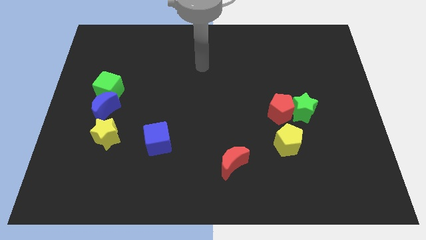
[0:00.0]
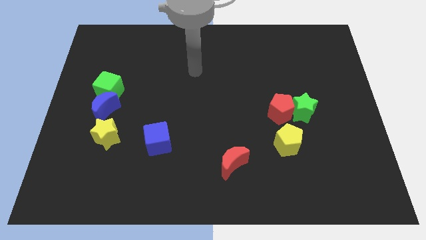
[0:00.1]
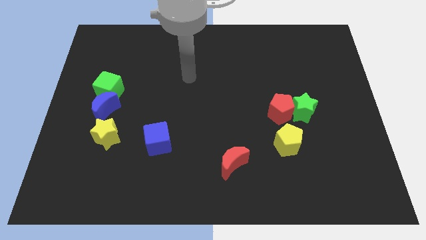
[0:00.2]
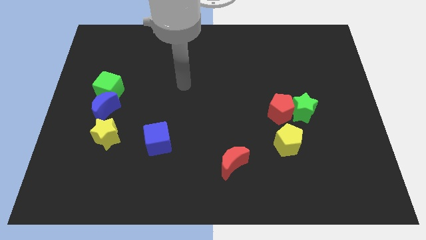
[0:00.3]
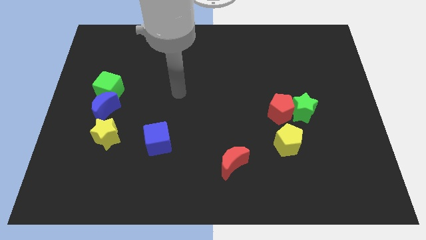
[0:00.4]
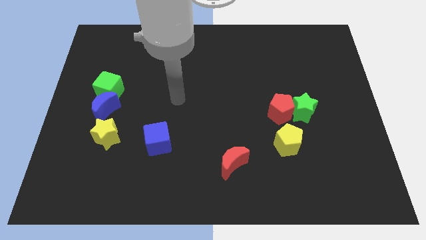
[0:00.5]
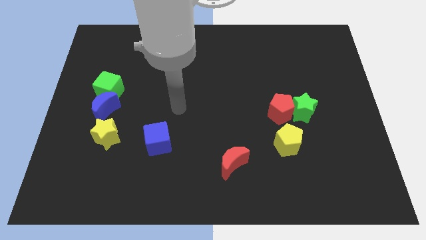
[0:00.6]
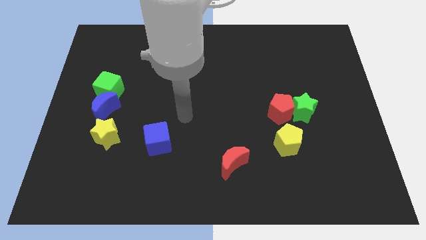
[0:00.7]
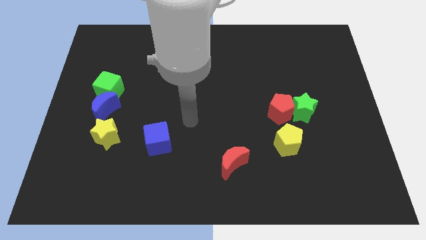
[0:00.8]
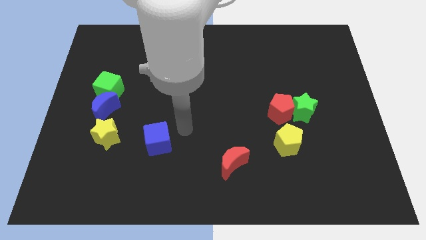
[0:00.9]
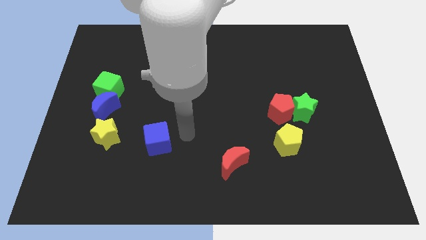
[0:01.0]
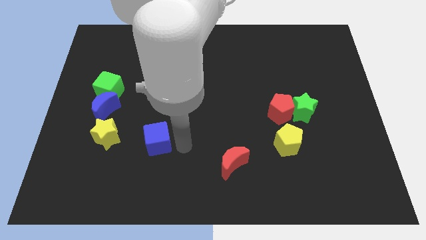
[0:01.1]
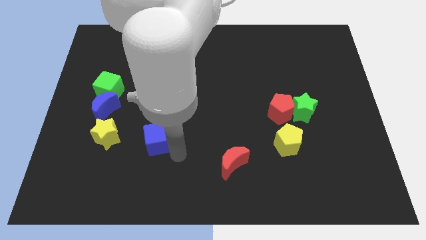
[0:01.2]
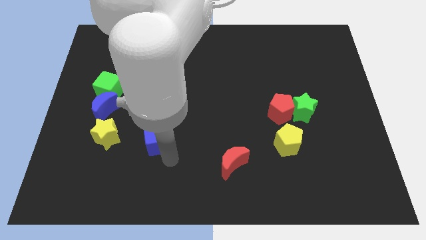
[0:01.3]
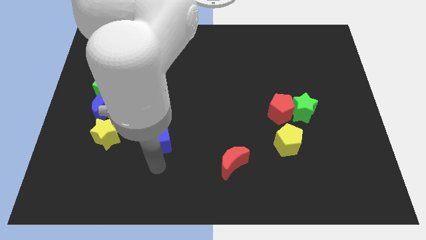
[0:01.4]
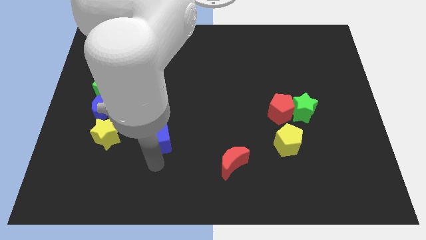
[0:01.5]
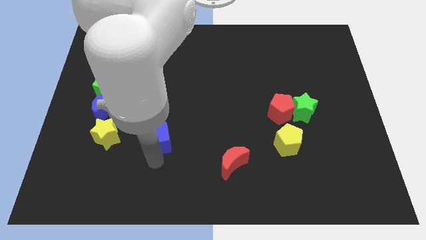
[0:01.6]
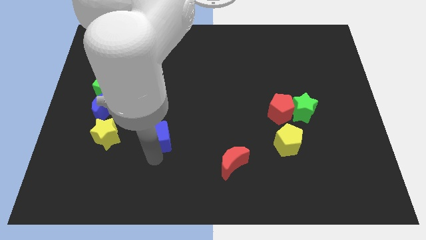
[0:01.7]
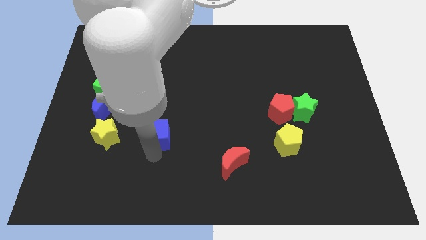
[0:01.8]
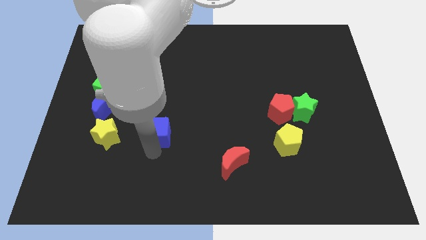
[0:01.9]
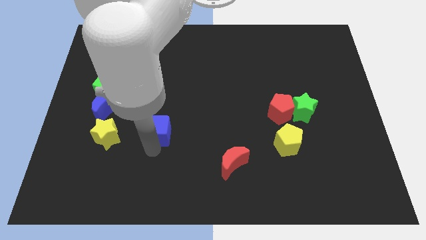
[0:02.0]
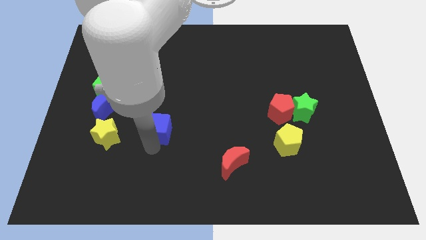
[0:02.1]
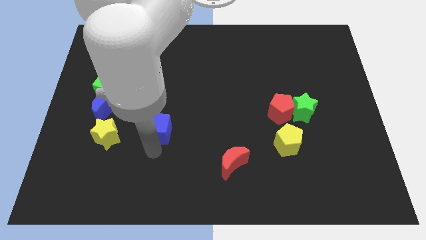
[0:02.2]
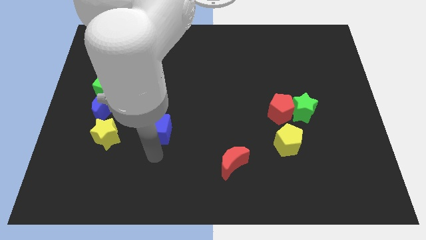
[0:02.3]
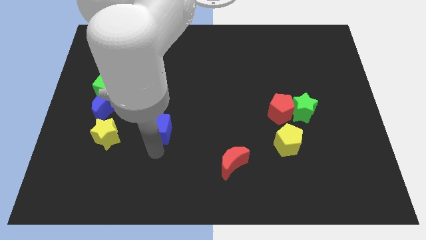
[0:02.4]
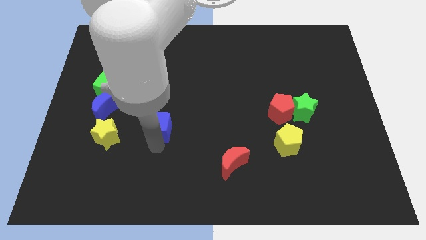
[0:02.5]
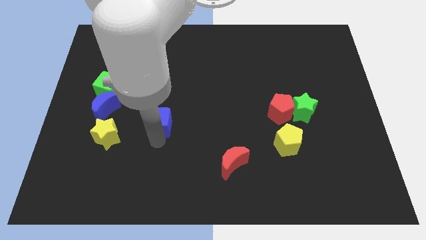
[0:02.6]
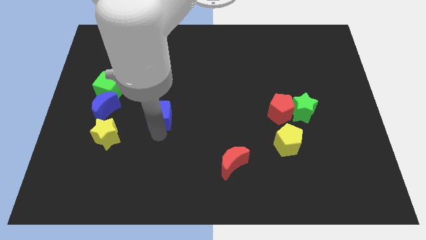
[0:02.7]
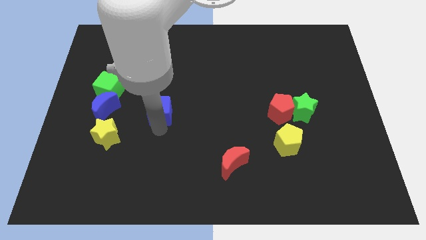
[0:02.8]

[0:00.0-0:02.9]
slightly slide the blue cube upwards

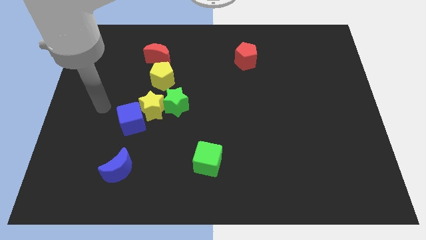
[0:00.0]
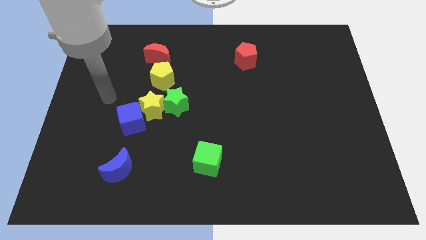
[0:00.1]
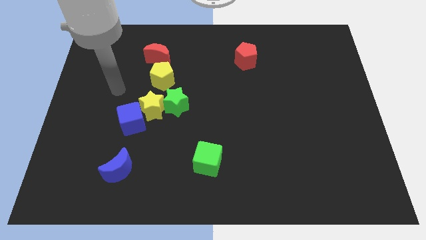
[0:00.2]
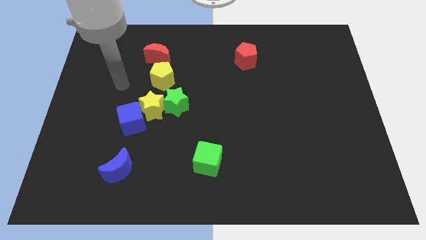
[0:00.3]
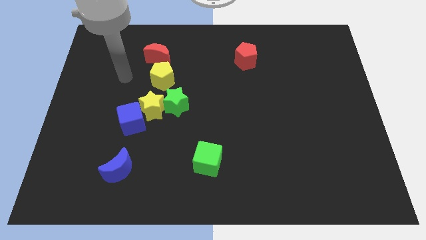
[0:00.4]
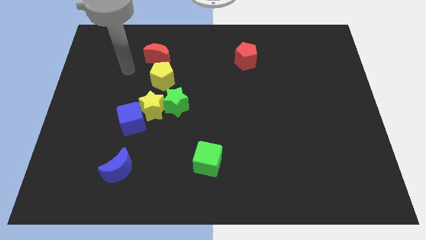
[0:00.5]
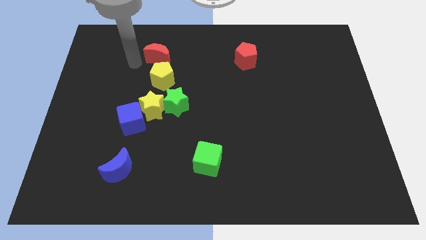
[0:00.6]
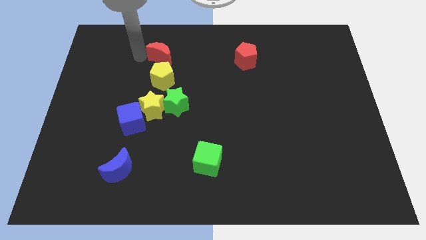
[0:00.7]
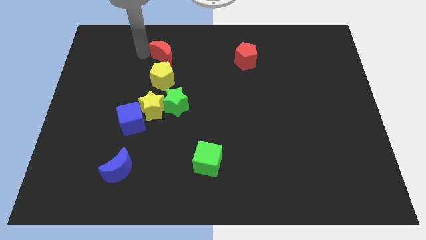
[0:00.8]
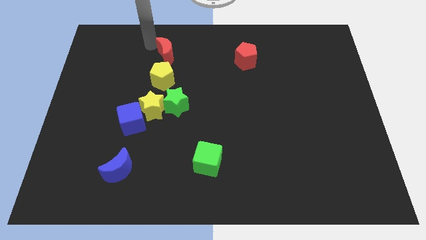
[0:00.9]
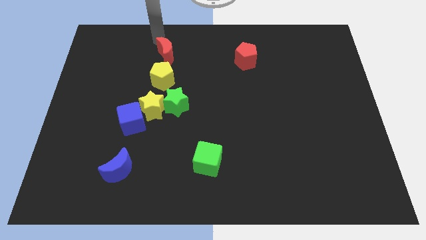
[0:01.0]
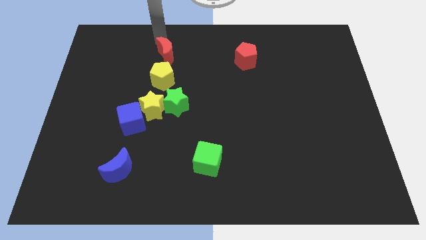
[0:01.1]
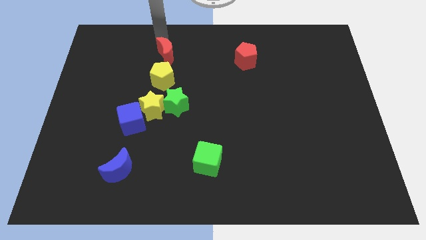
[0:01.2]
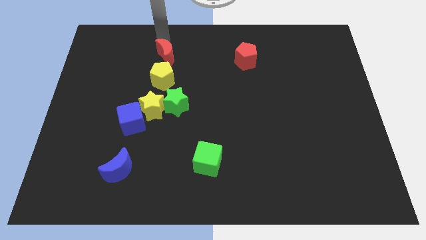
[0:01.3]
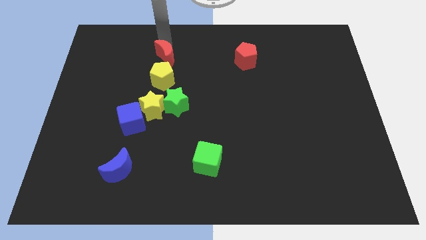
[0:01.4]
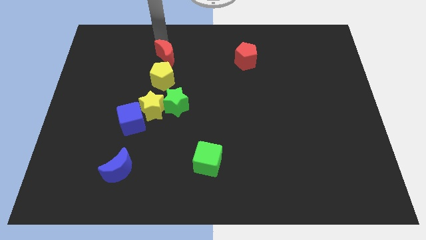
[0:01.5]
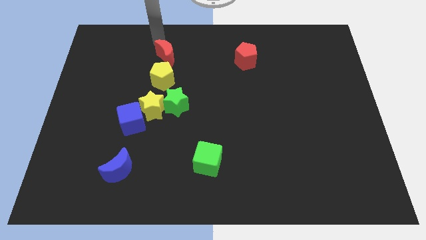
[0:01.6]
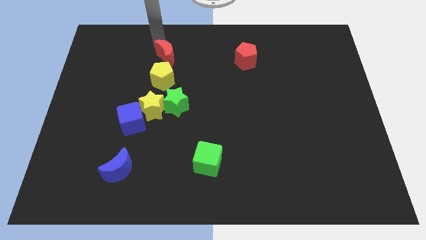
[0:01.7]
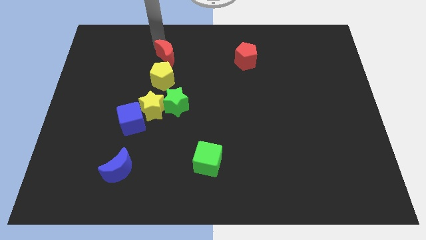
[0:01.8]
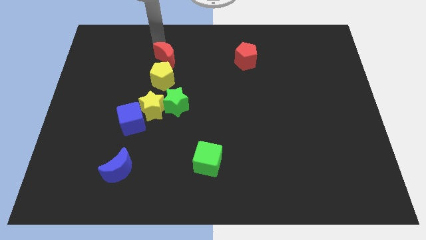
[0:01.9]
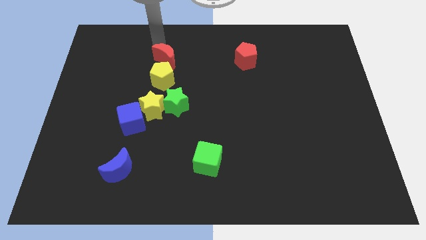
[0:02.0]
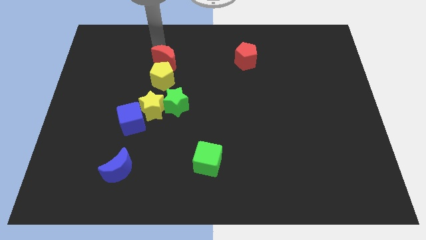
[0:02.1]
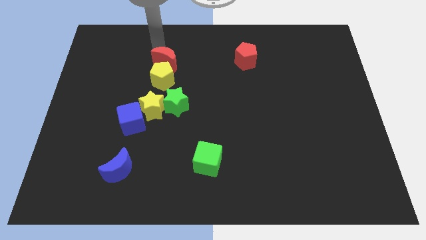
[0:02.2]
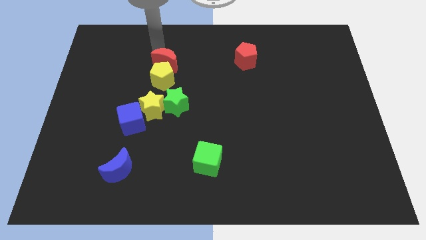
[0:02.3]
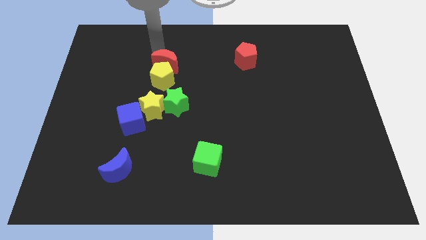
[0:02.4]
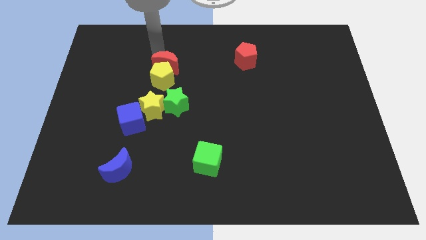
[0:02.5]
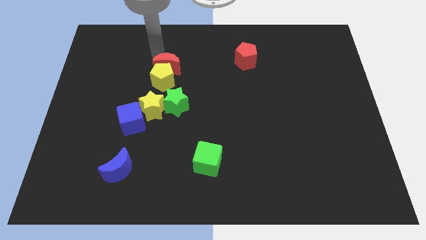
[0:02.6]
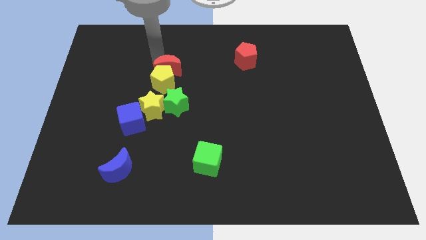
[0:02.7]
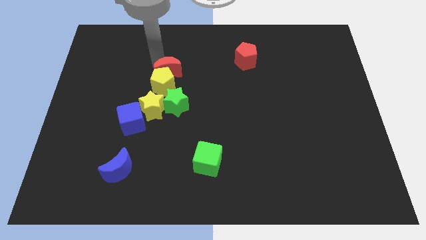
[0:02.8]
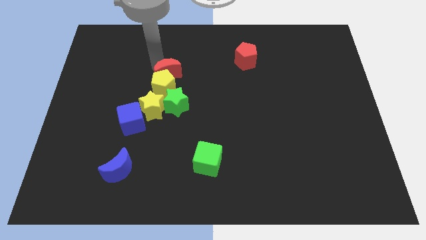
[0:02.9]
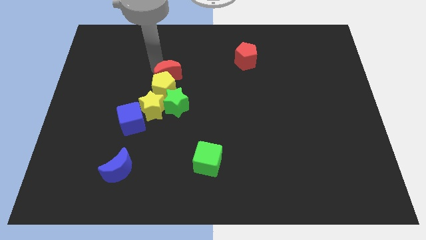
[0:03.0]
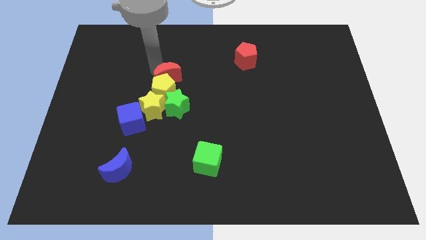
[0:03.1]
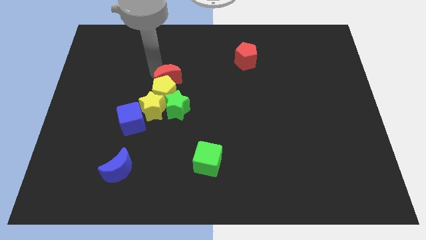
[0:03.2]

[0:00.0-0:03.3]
slide the red moon slightly downwards and to the right

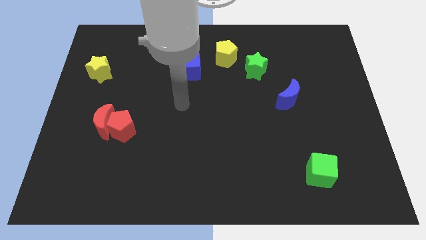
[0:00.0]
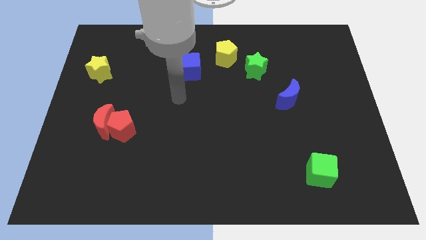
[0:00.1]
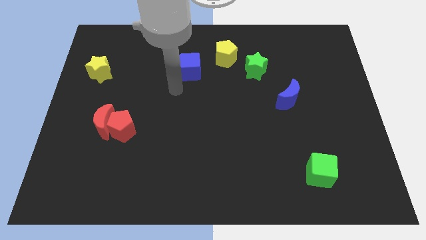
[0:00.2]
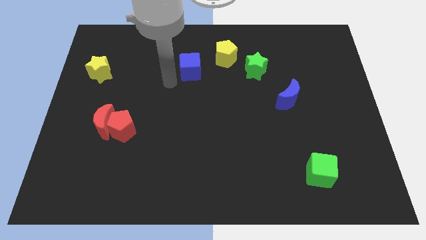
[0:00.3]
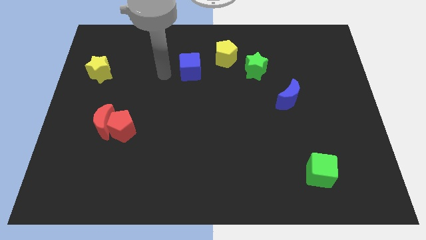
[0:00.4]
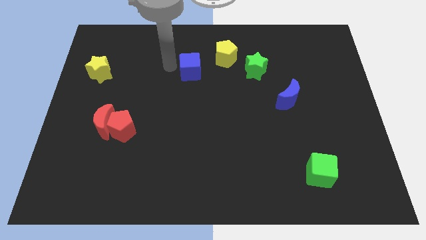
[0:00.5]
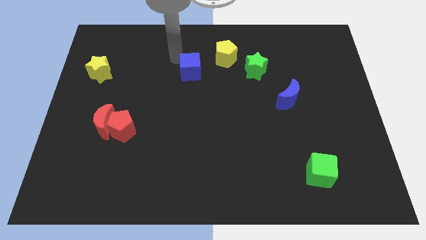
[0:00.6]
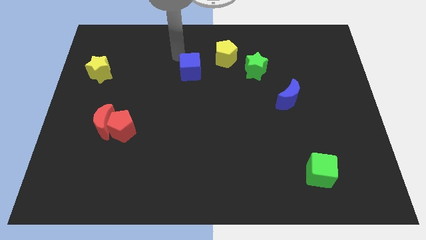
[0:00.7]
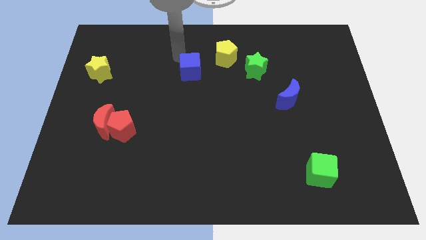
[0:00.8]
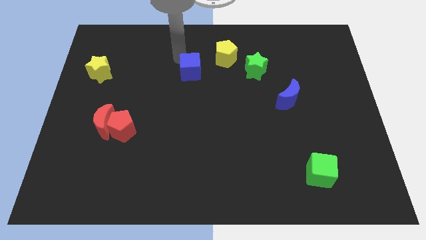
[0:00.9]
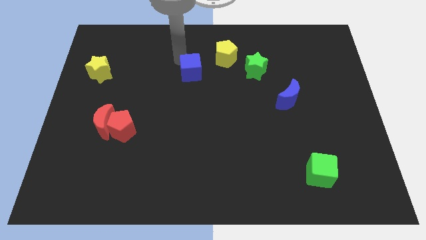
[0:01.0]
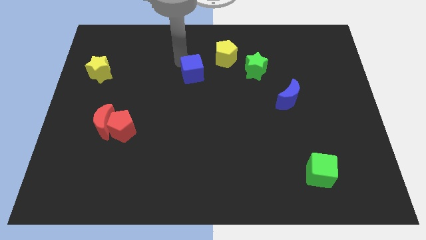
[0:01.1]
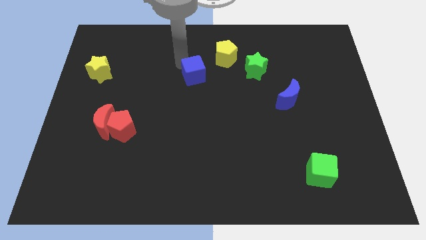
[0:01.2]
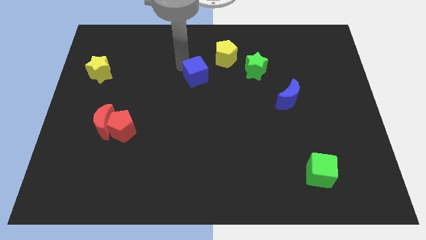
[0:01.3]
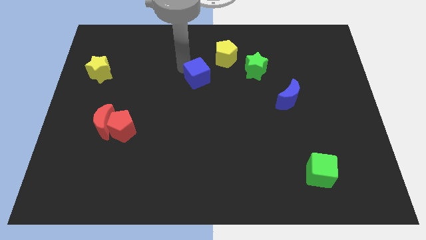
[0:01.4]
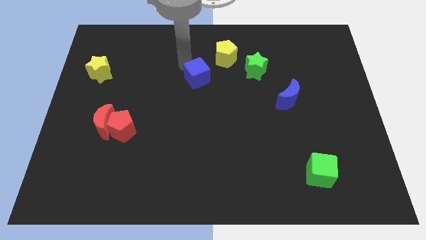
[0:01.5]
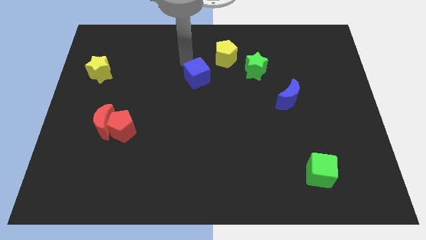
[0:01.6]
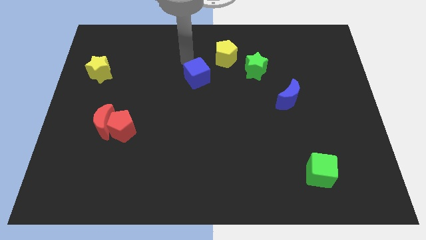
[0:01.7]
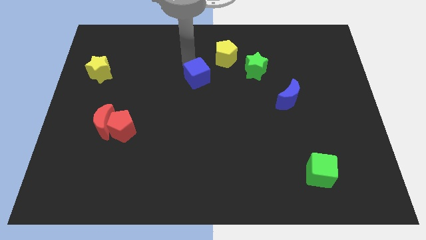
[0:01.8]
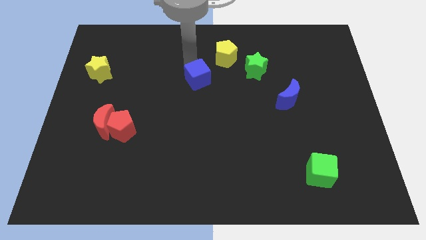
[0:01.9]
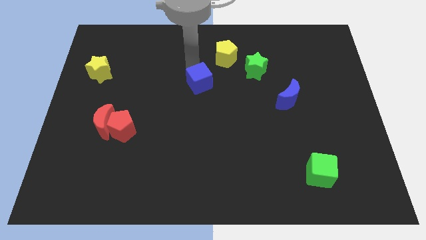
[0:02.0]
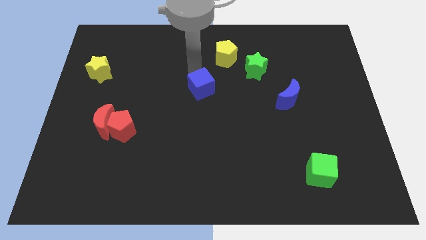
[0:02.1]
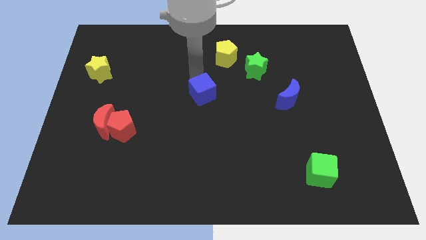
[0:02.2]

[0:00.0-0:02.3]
slightly move the blue cube down and right
